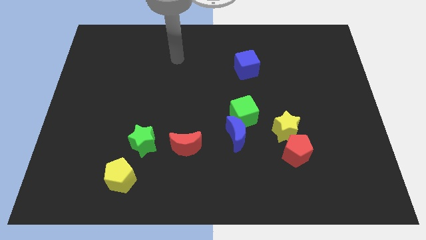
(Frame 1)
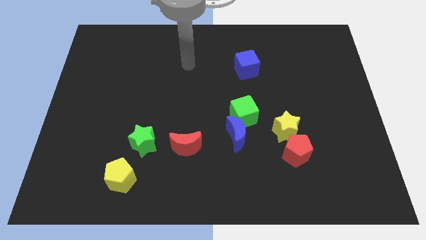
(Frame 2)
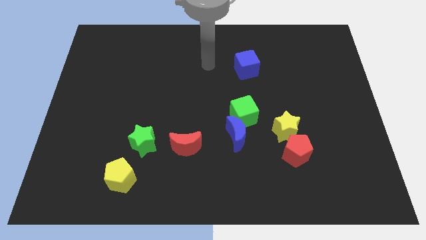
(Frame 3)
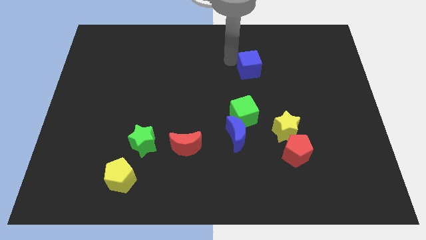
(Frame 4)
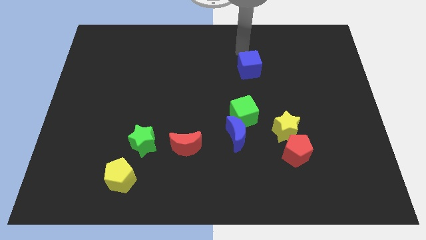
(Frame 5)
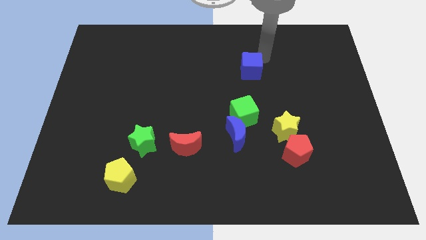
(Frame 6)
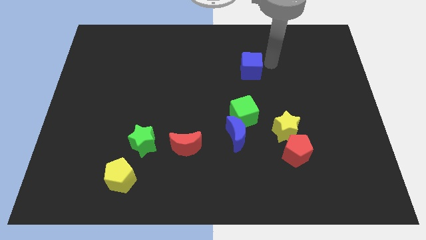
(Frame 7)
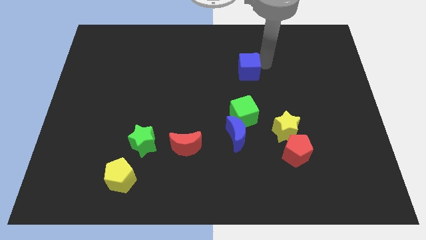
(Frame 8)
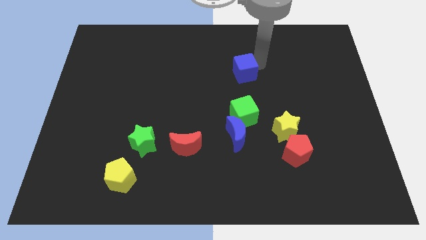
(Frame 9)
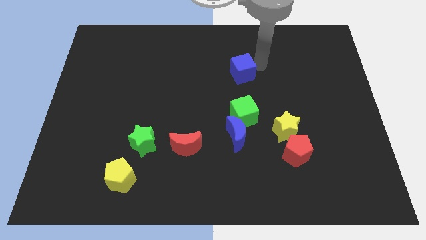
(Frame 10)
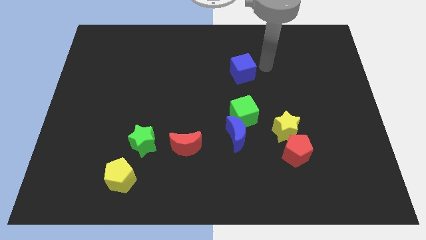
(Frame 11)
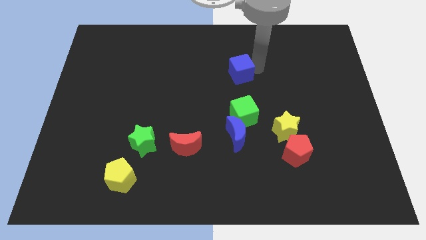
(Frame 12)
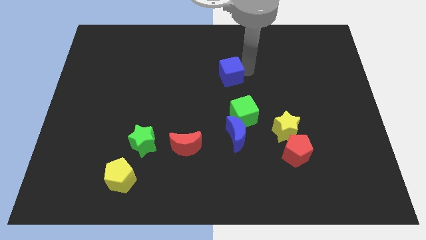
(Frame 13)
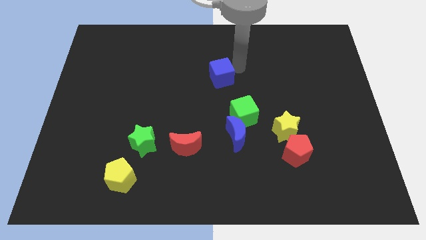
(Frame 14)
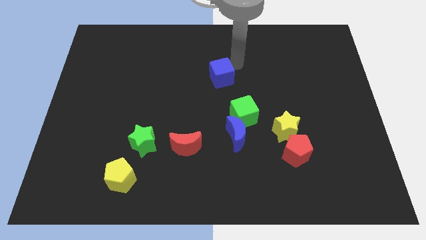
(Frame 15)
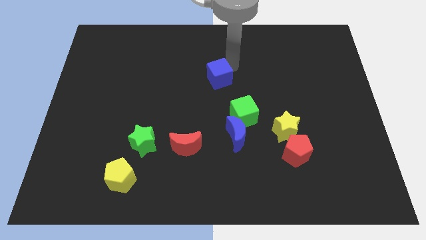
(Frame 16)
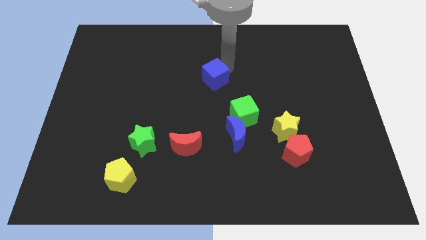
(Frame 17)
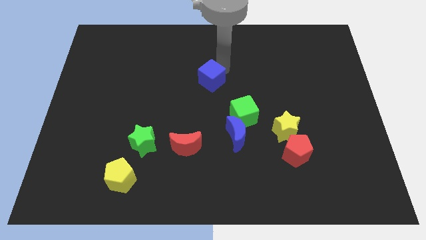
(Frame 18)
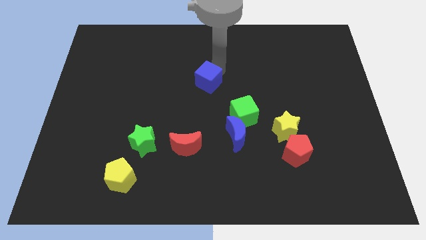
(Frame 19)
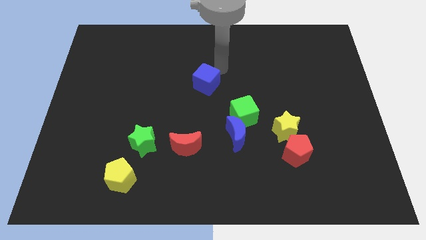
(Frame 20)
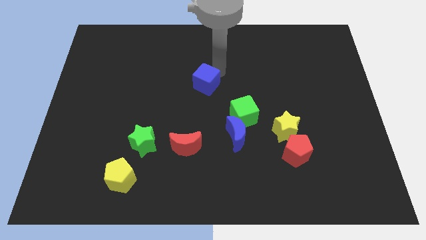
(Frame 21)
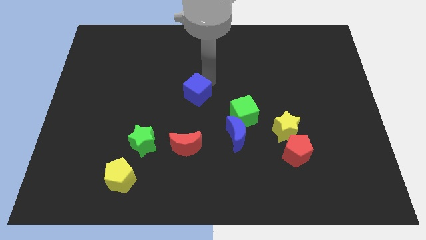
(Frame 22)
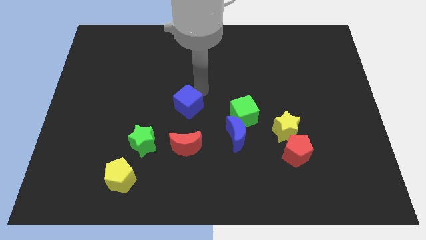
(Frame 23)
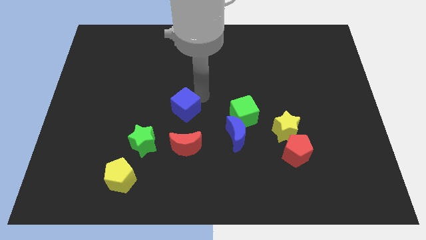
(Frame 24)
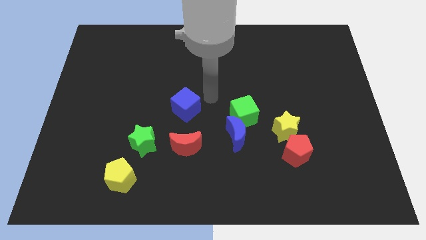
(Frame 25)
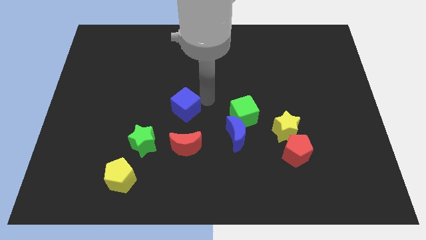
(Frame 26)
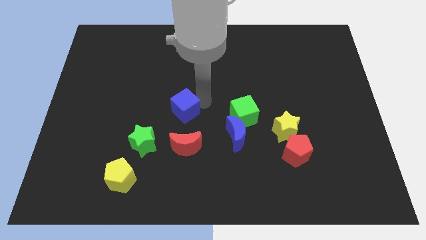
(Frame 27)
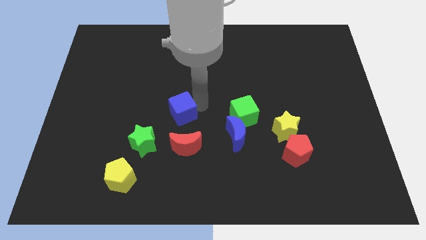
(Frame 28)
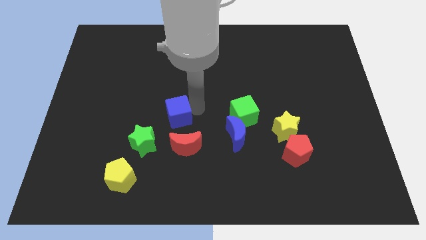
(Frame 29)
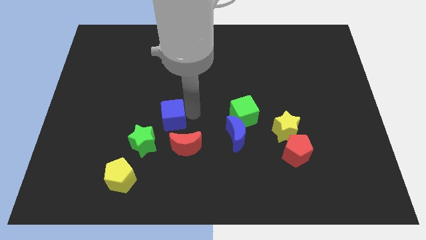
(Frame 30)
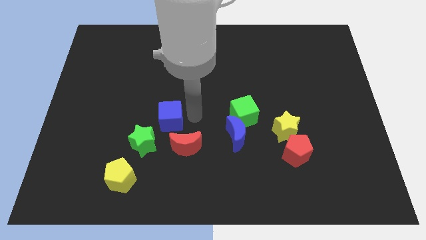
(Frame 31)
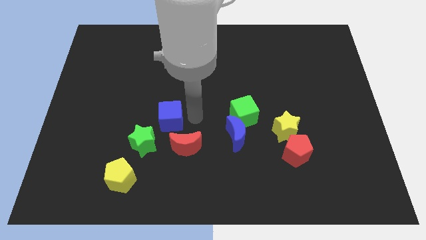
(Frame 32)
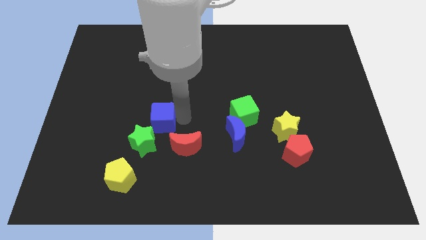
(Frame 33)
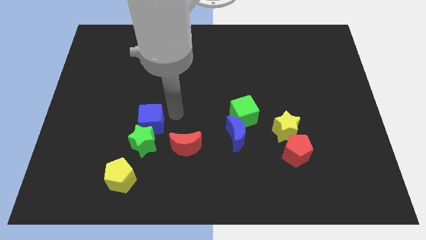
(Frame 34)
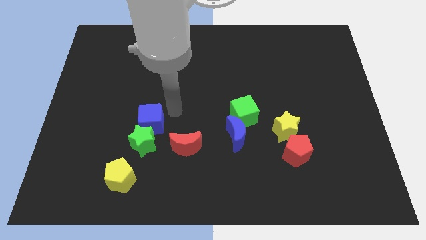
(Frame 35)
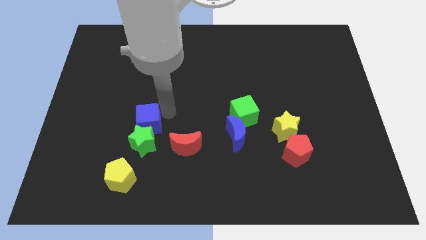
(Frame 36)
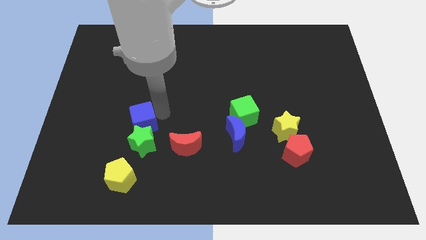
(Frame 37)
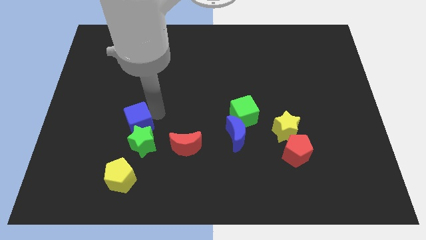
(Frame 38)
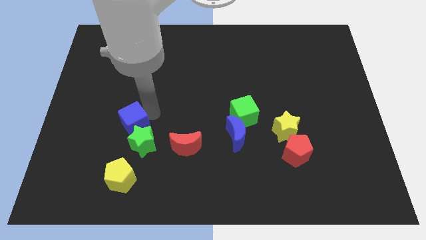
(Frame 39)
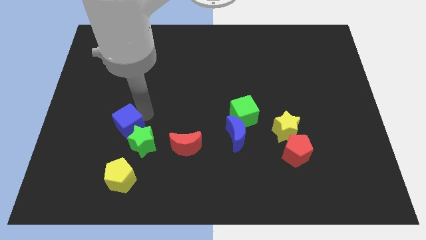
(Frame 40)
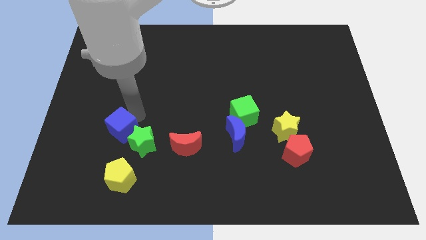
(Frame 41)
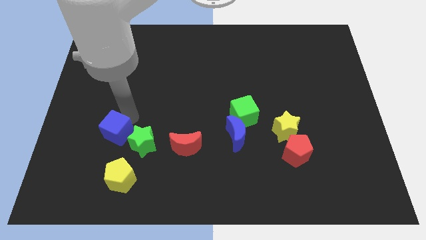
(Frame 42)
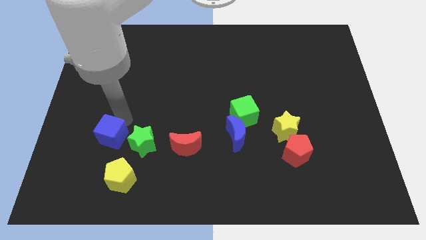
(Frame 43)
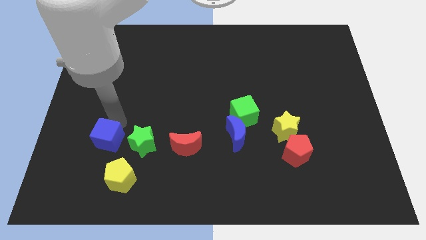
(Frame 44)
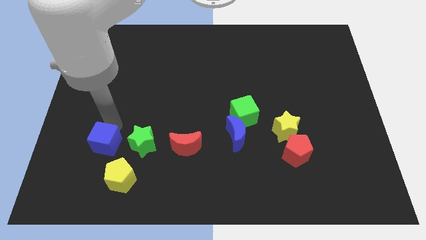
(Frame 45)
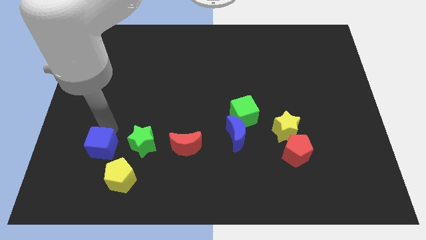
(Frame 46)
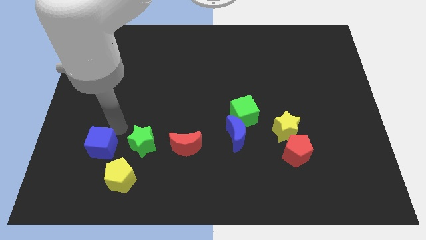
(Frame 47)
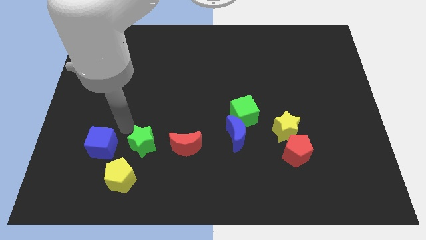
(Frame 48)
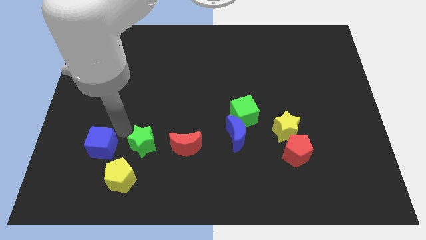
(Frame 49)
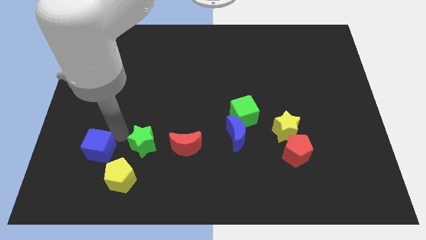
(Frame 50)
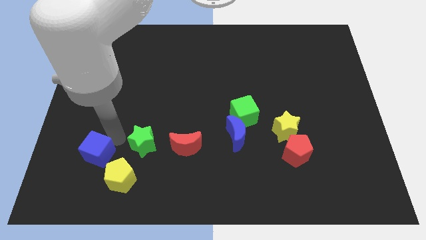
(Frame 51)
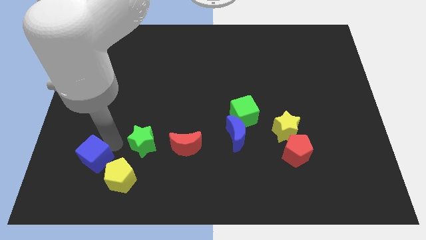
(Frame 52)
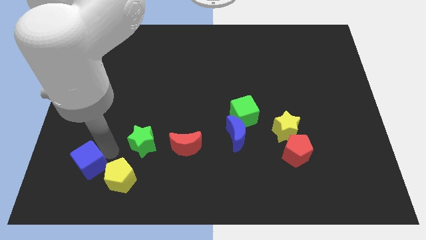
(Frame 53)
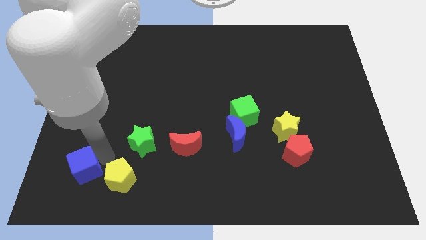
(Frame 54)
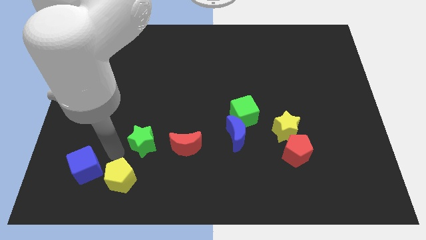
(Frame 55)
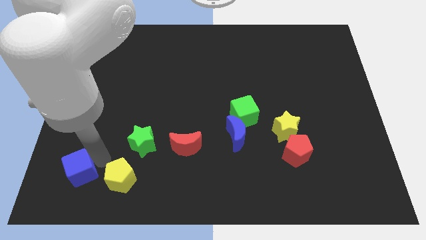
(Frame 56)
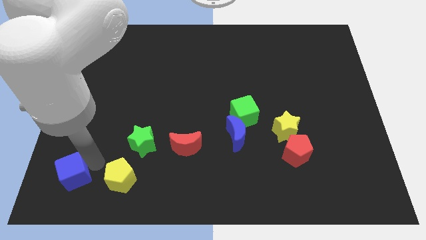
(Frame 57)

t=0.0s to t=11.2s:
move the blue cube to the bottom left corner

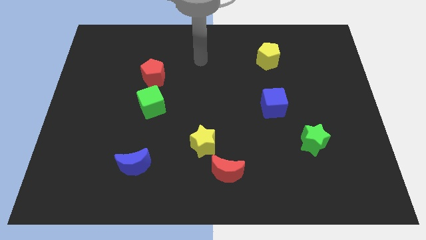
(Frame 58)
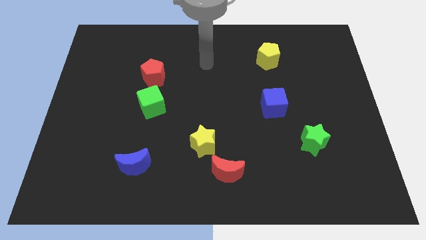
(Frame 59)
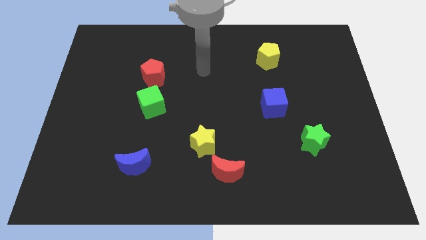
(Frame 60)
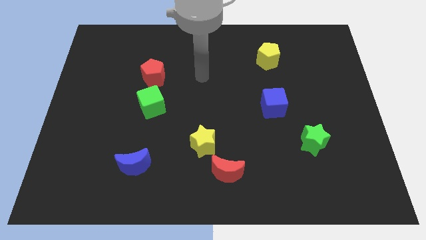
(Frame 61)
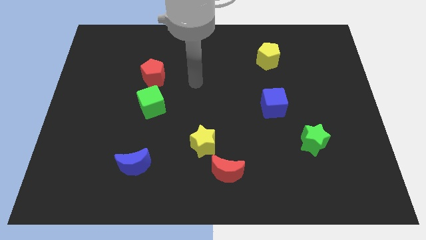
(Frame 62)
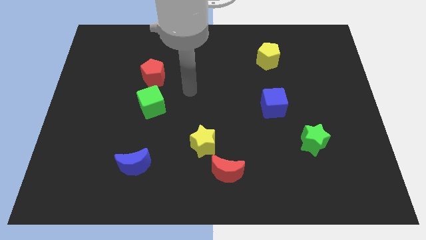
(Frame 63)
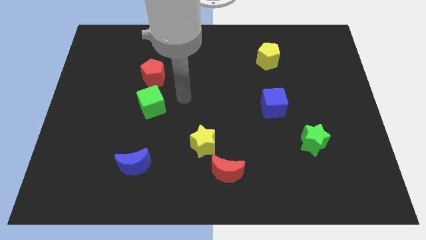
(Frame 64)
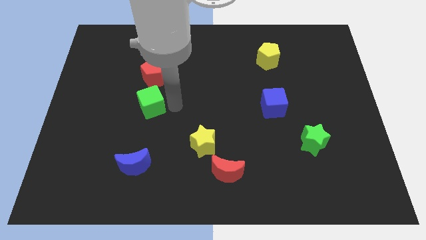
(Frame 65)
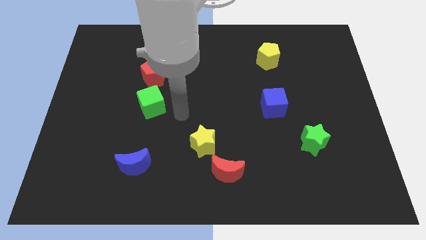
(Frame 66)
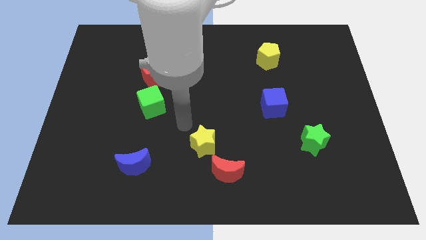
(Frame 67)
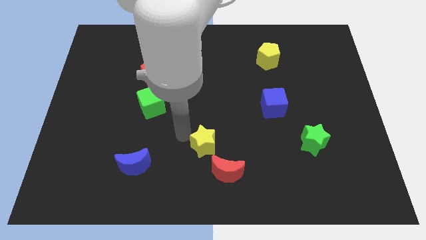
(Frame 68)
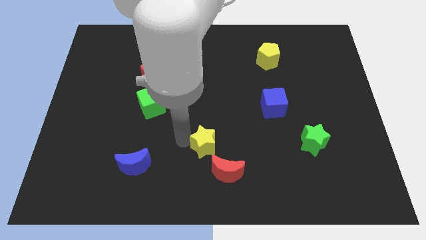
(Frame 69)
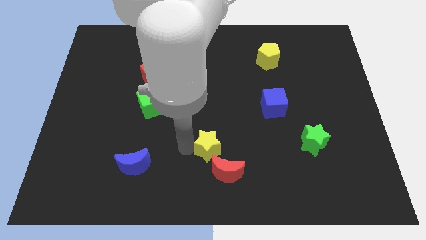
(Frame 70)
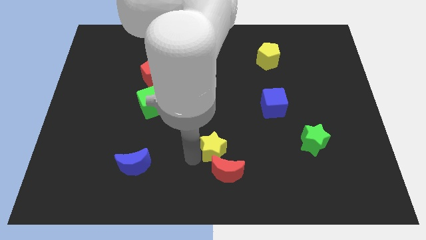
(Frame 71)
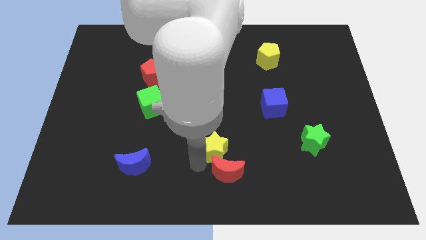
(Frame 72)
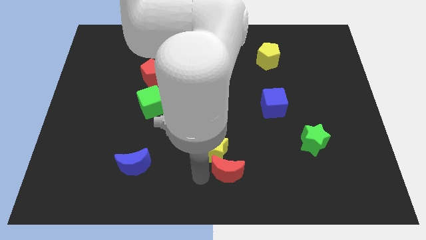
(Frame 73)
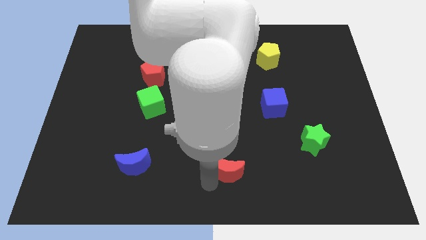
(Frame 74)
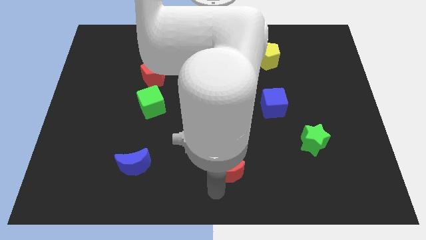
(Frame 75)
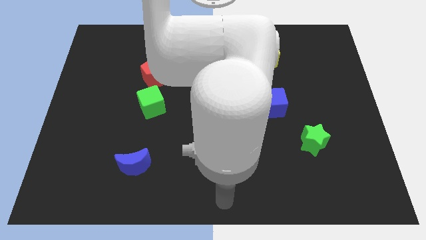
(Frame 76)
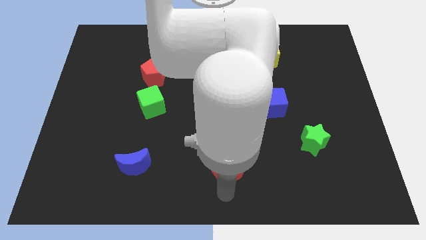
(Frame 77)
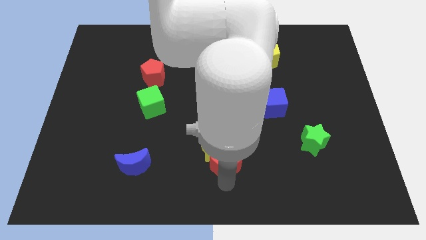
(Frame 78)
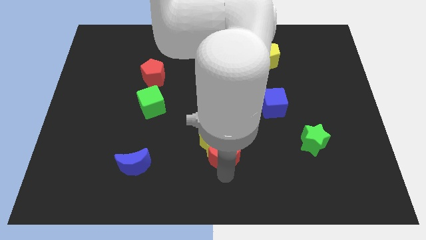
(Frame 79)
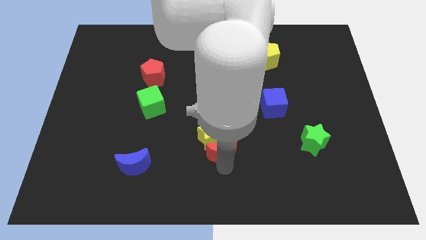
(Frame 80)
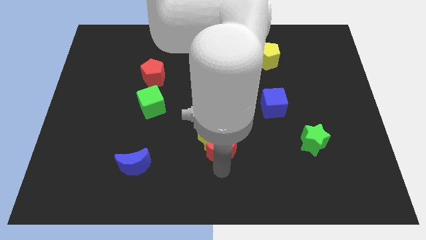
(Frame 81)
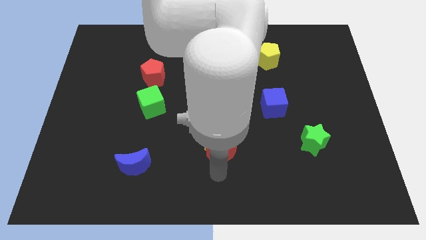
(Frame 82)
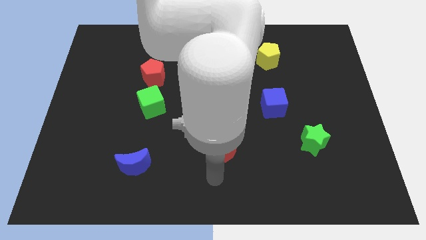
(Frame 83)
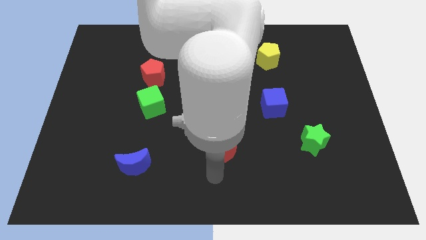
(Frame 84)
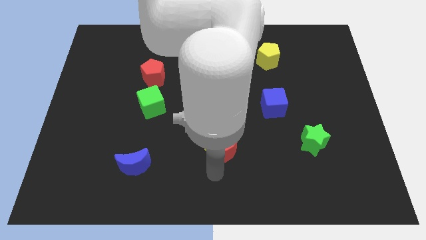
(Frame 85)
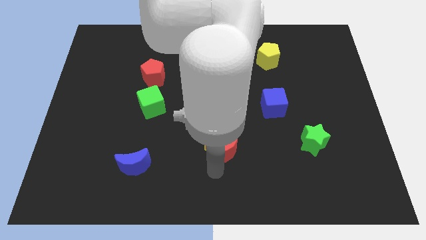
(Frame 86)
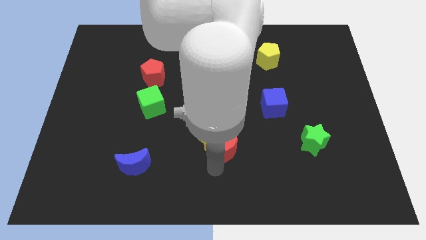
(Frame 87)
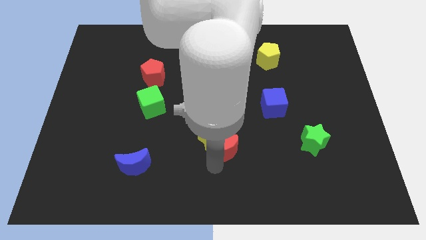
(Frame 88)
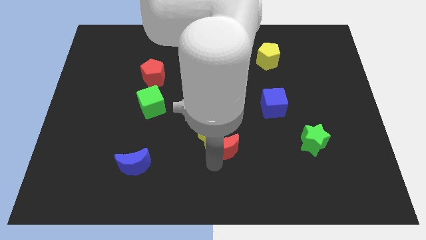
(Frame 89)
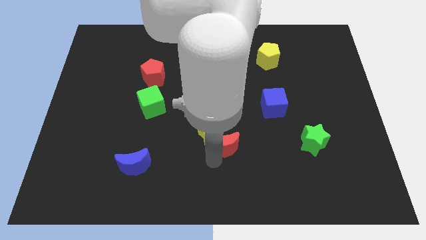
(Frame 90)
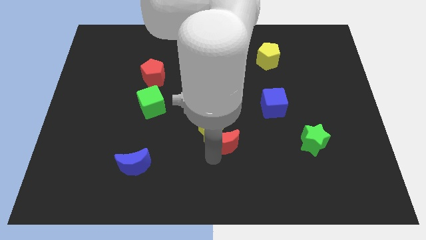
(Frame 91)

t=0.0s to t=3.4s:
put the red moon to the middle
